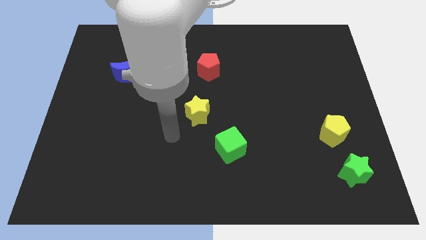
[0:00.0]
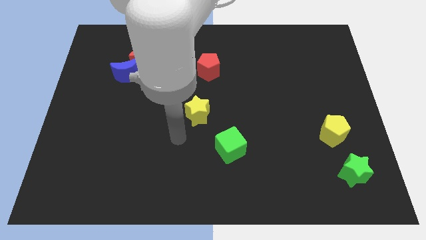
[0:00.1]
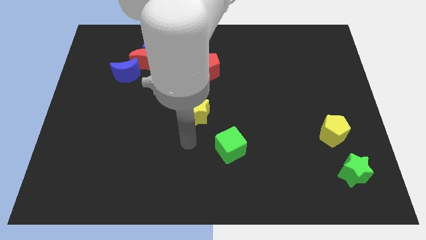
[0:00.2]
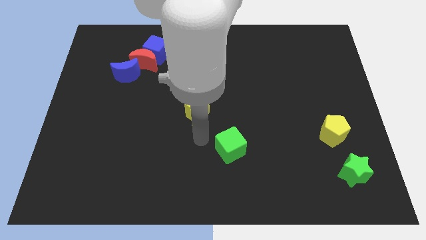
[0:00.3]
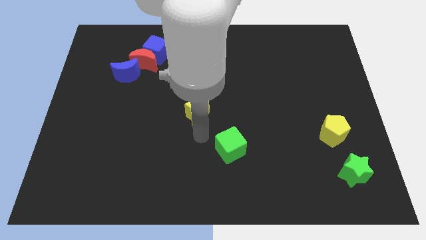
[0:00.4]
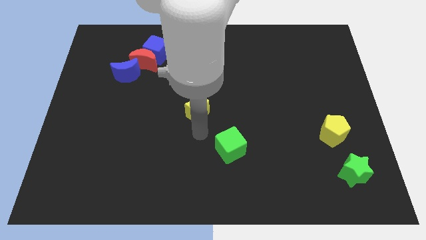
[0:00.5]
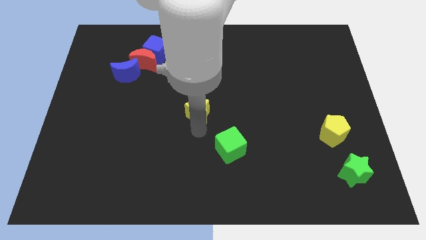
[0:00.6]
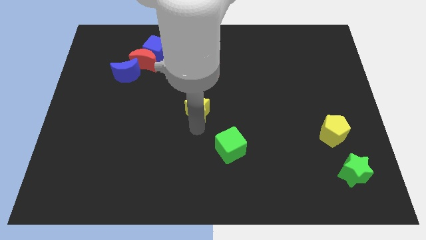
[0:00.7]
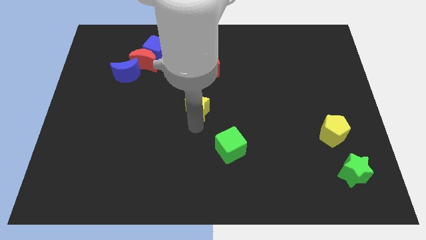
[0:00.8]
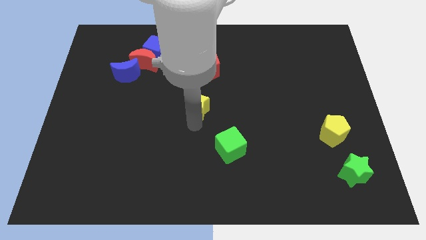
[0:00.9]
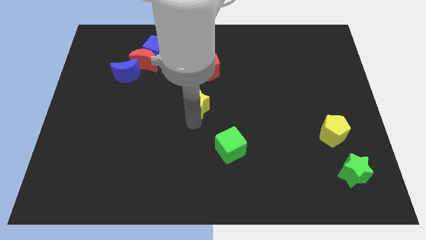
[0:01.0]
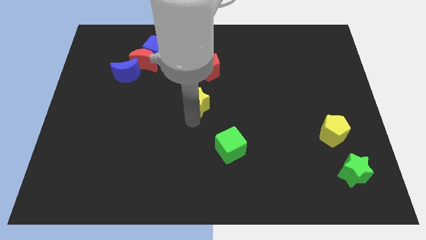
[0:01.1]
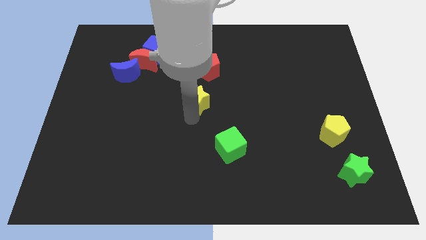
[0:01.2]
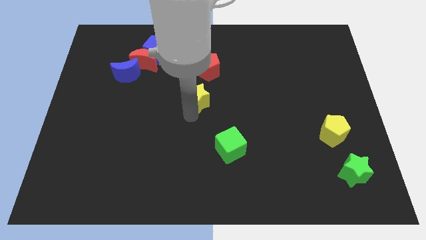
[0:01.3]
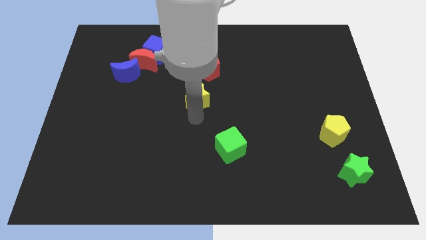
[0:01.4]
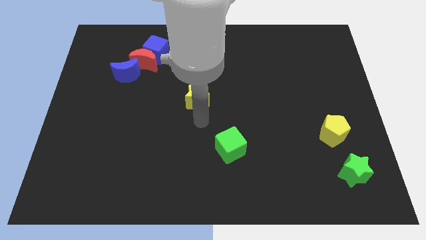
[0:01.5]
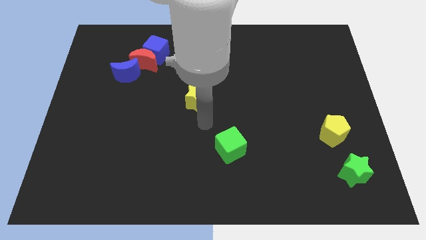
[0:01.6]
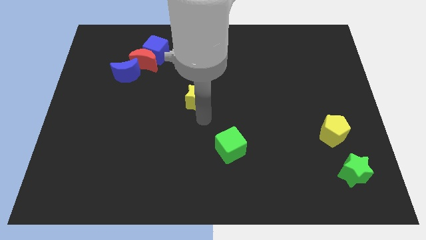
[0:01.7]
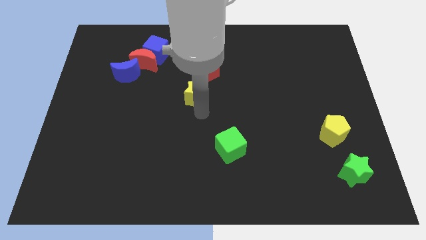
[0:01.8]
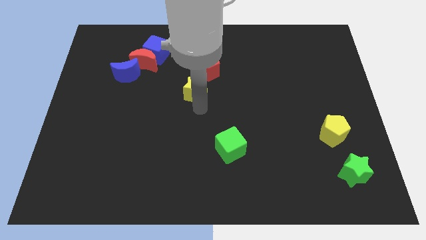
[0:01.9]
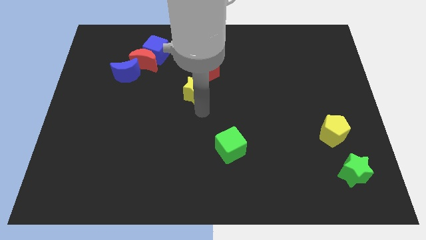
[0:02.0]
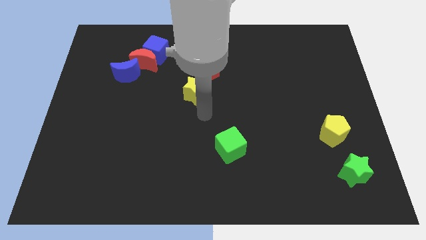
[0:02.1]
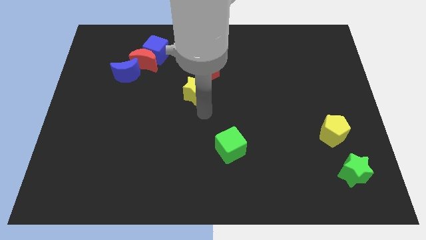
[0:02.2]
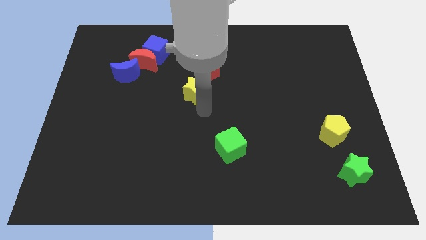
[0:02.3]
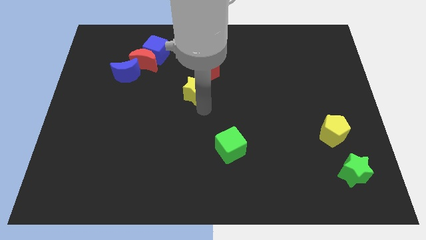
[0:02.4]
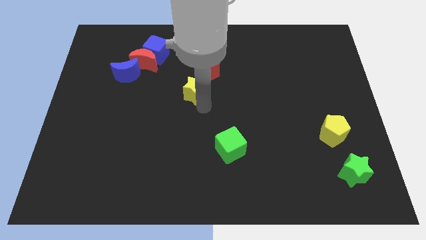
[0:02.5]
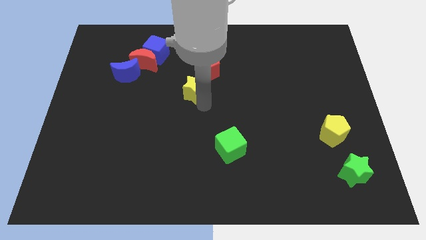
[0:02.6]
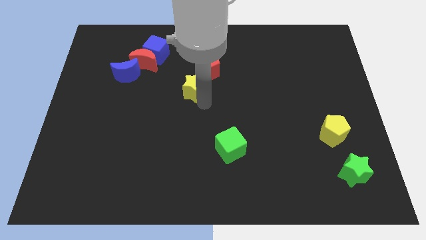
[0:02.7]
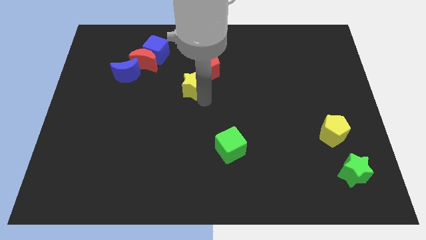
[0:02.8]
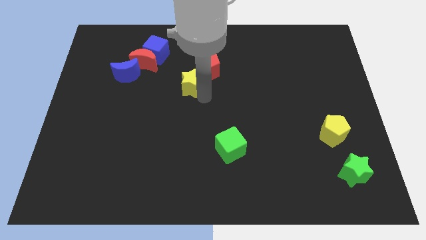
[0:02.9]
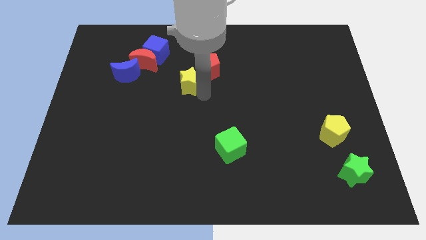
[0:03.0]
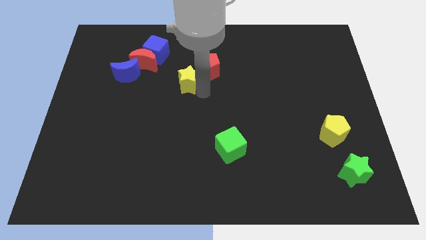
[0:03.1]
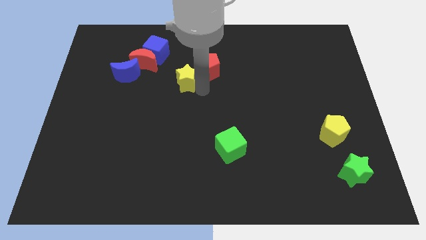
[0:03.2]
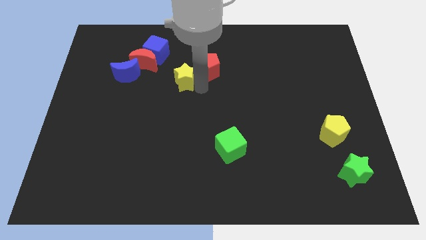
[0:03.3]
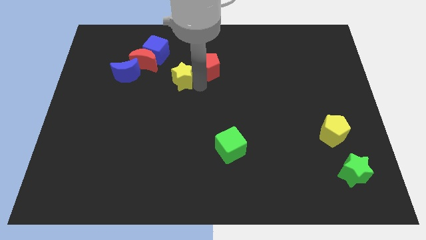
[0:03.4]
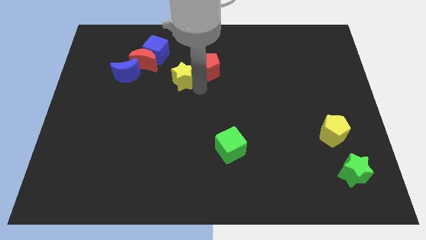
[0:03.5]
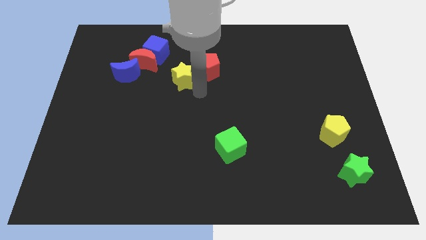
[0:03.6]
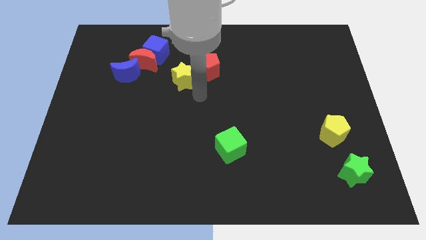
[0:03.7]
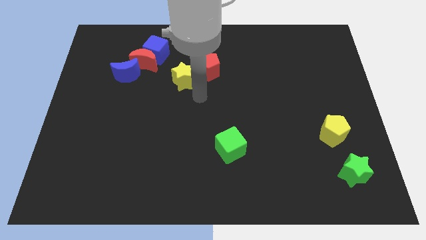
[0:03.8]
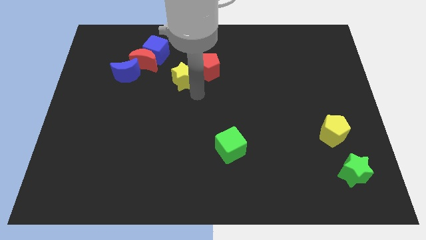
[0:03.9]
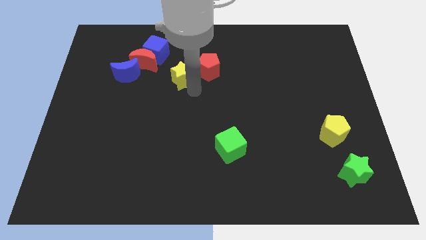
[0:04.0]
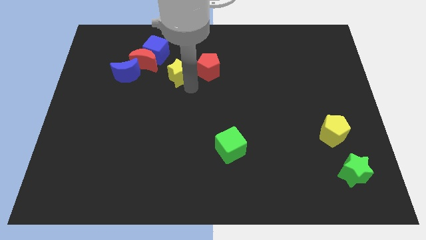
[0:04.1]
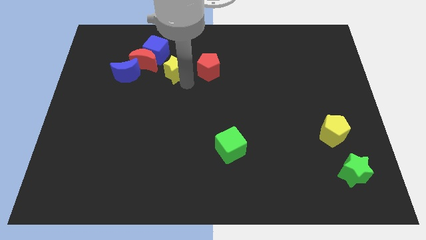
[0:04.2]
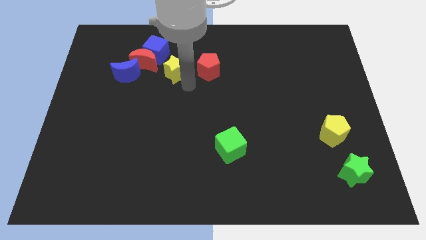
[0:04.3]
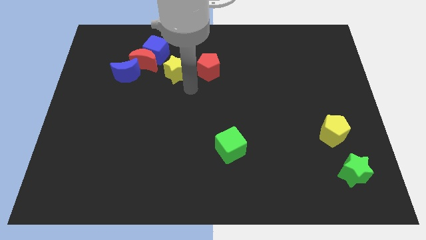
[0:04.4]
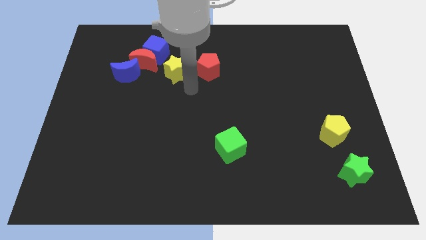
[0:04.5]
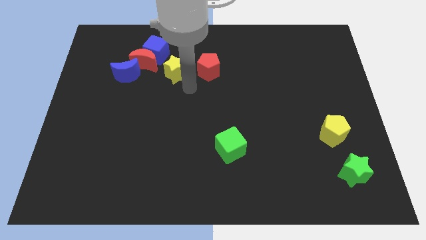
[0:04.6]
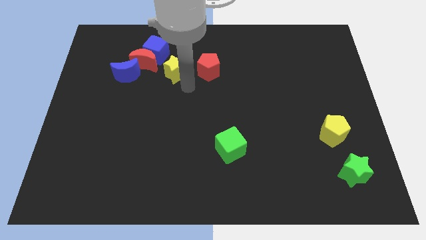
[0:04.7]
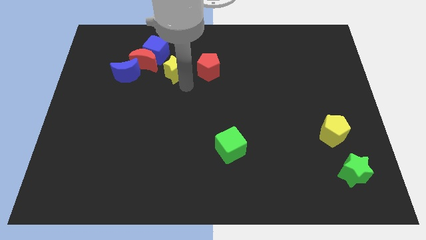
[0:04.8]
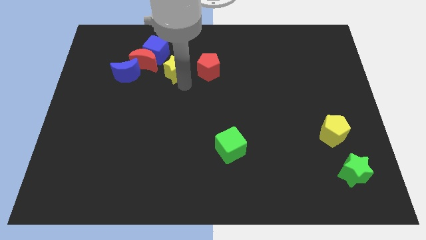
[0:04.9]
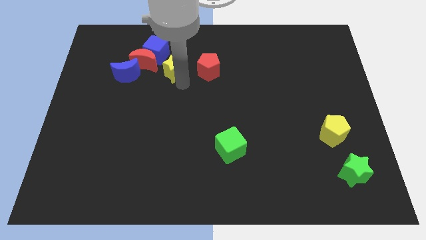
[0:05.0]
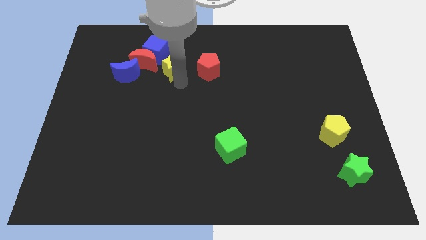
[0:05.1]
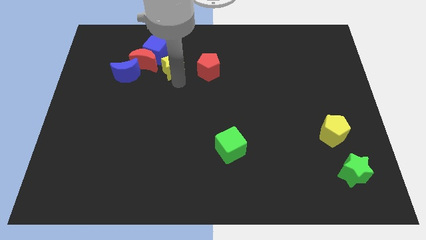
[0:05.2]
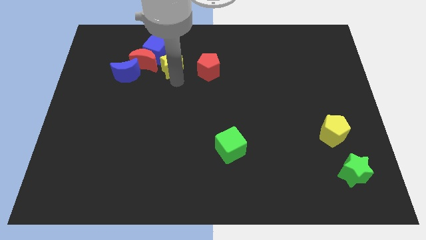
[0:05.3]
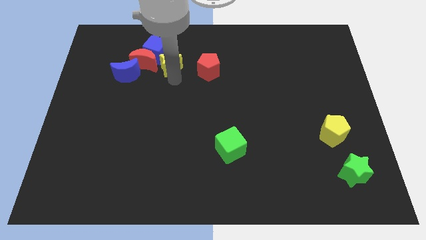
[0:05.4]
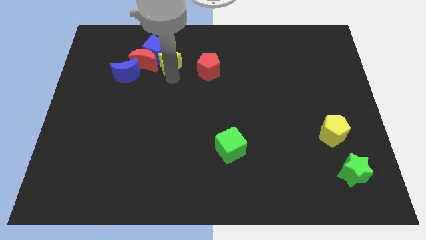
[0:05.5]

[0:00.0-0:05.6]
move the yellow star towards the blue cube

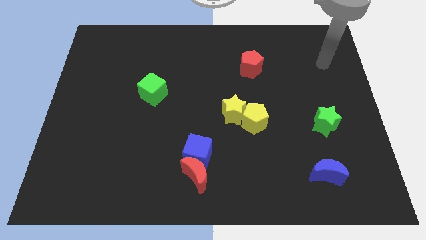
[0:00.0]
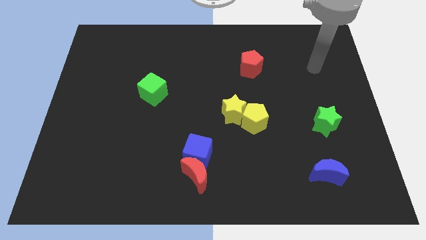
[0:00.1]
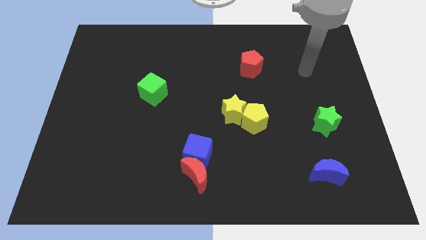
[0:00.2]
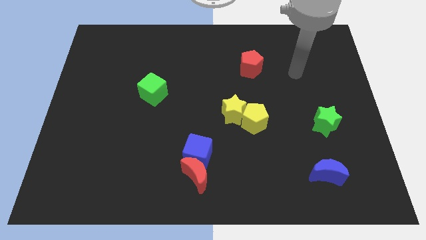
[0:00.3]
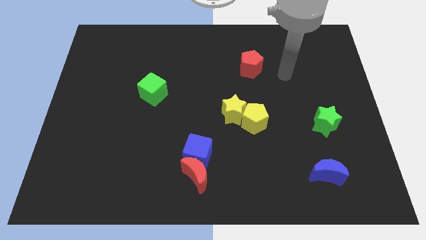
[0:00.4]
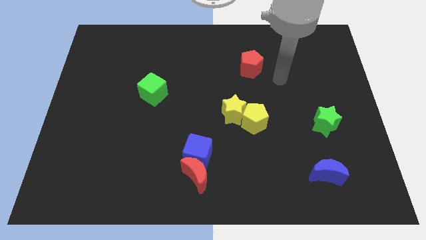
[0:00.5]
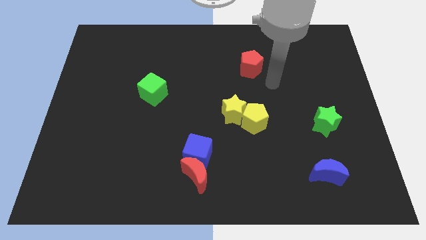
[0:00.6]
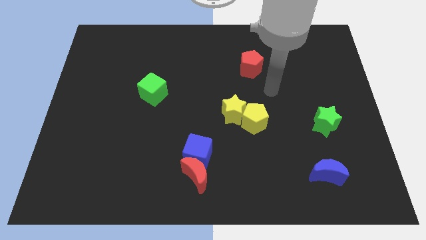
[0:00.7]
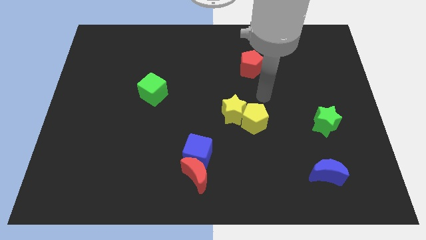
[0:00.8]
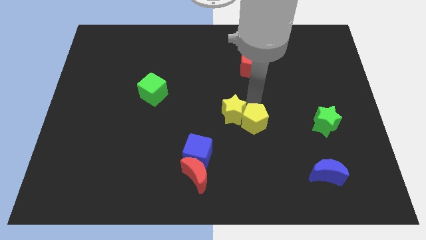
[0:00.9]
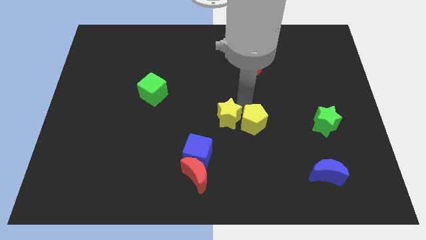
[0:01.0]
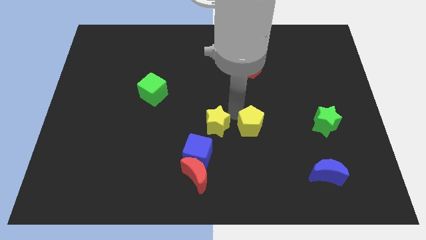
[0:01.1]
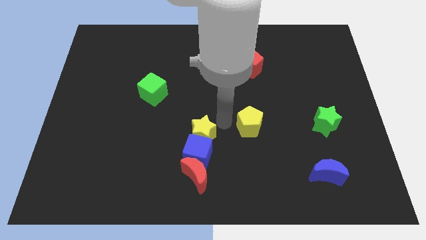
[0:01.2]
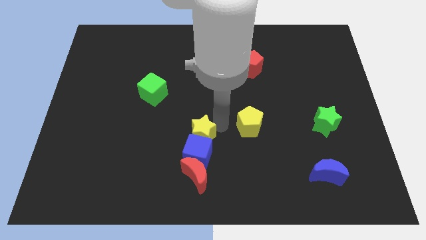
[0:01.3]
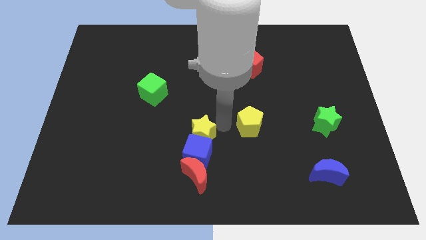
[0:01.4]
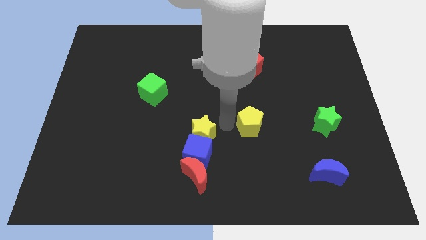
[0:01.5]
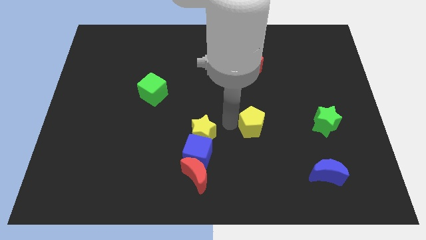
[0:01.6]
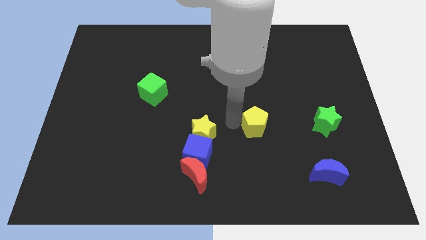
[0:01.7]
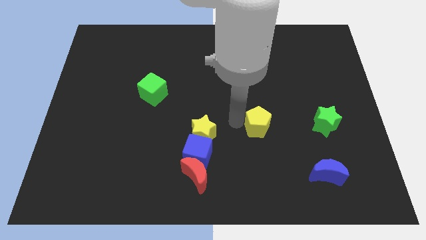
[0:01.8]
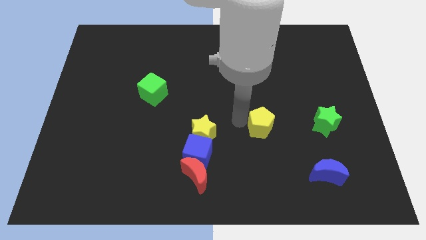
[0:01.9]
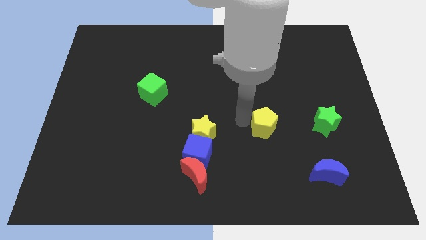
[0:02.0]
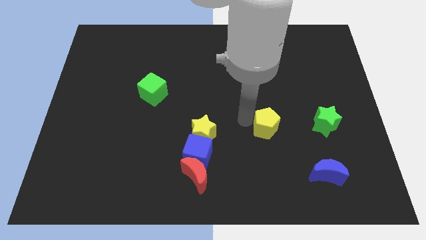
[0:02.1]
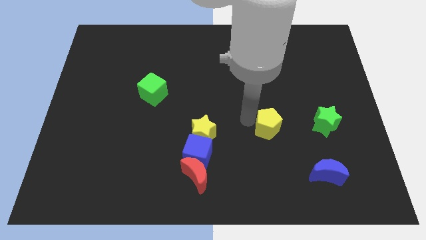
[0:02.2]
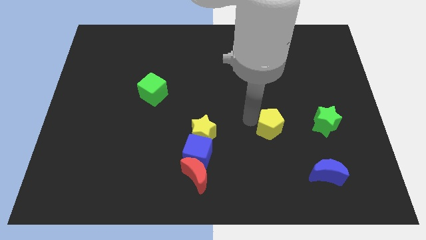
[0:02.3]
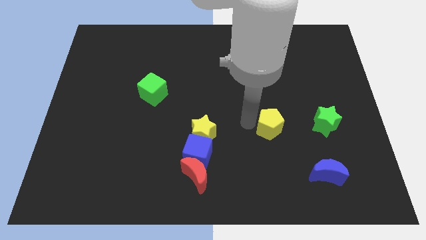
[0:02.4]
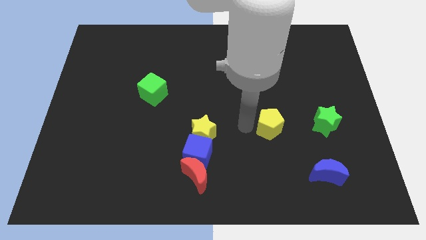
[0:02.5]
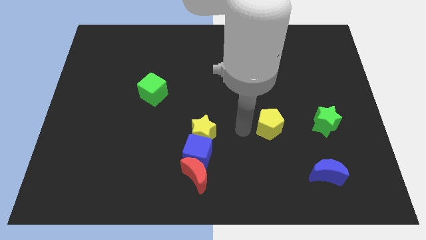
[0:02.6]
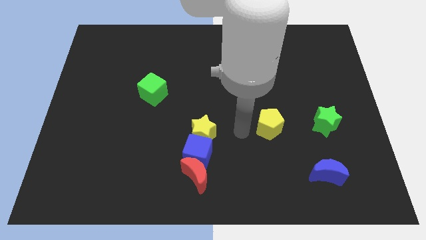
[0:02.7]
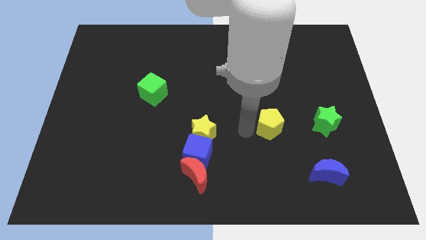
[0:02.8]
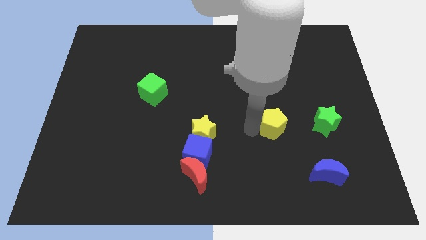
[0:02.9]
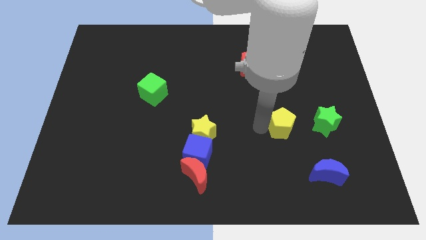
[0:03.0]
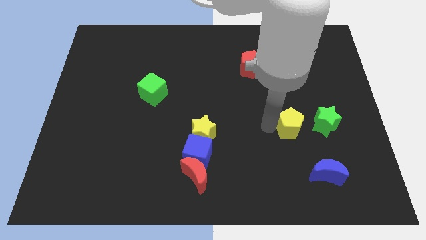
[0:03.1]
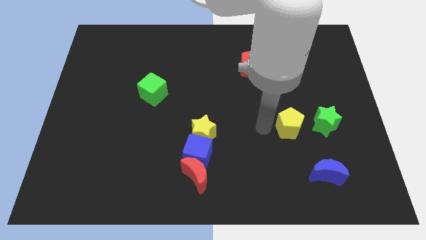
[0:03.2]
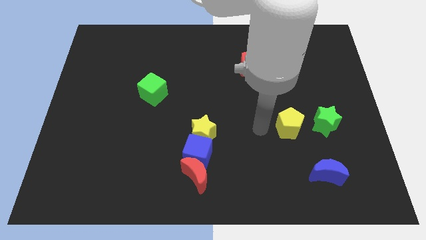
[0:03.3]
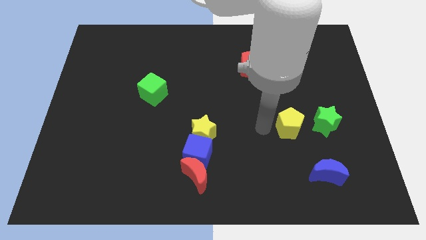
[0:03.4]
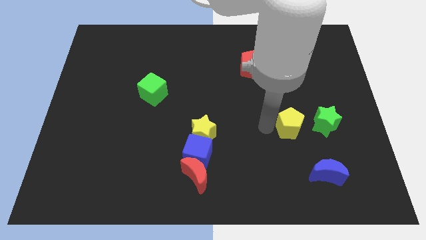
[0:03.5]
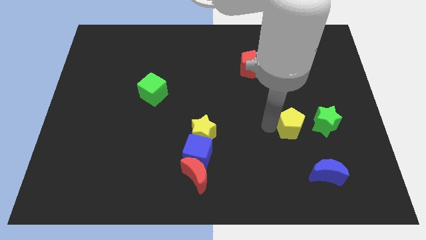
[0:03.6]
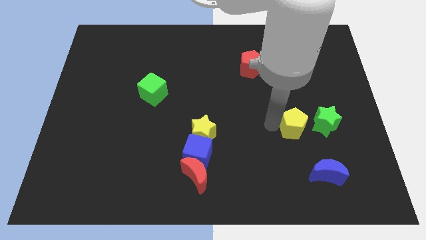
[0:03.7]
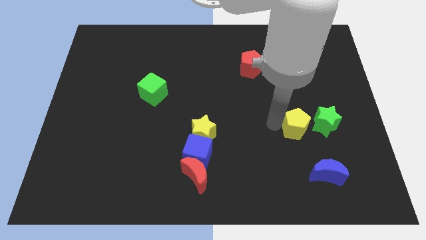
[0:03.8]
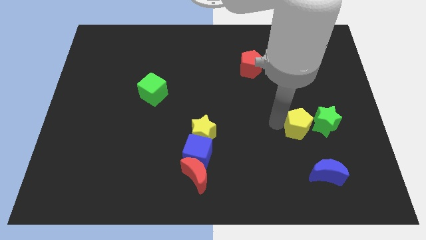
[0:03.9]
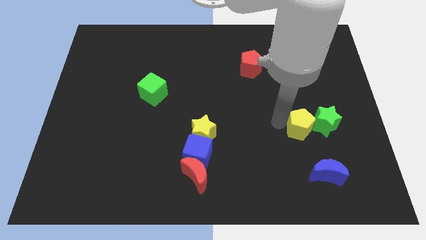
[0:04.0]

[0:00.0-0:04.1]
push the yellow pentagon close to the green star
